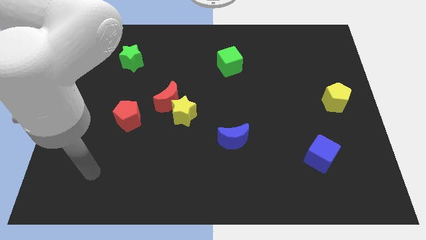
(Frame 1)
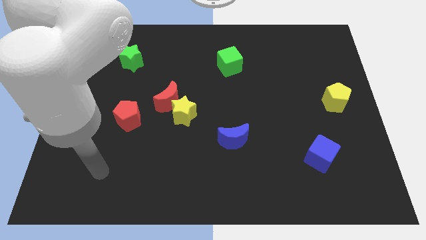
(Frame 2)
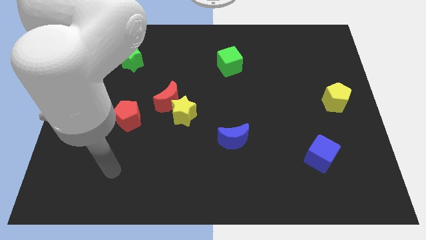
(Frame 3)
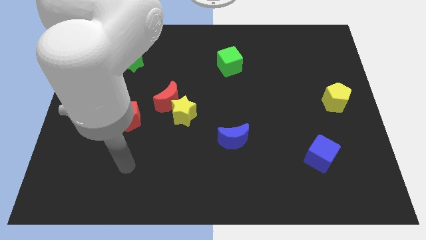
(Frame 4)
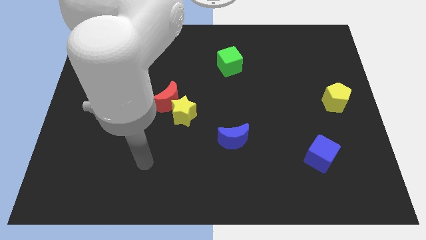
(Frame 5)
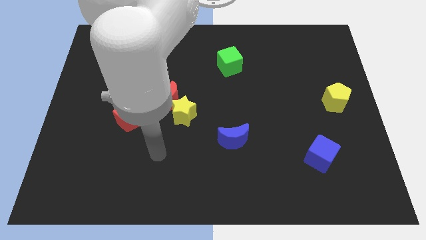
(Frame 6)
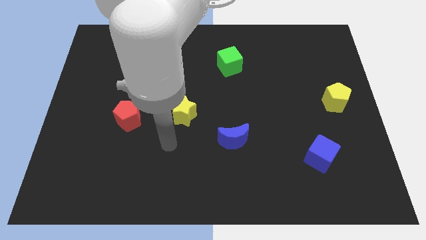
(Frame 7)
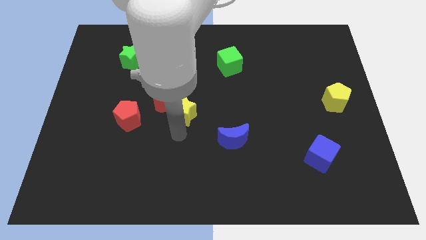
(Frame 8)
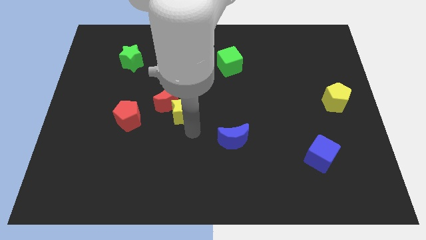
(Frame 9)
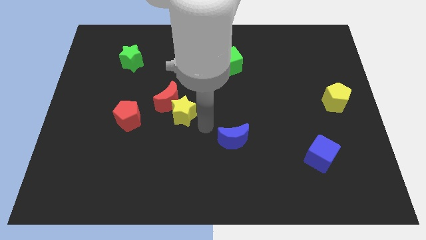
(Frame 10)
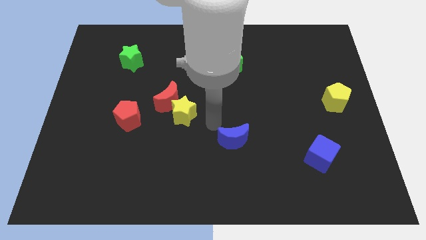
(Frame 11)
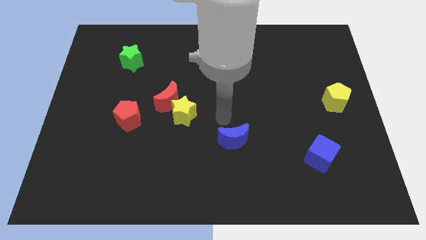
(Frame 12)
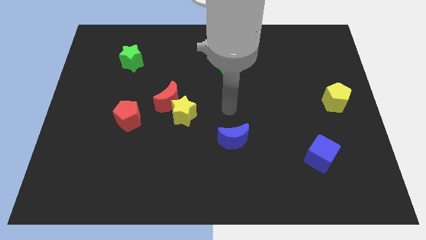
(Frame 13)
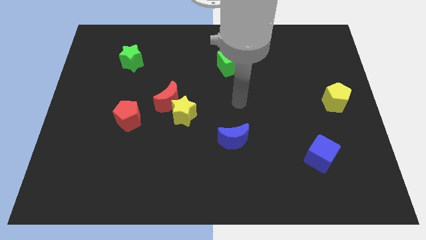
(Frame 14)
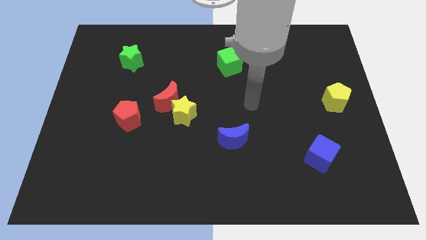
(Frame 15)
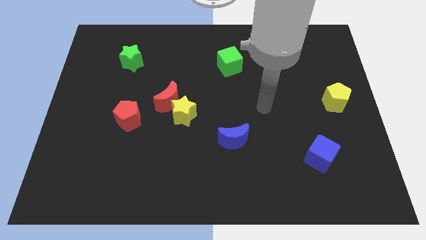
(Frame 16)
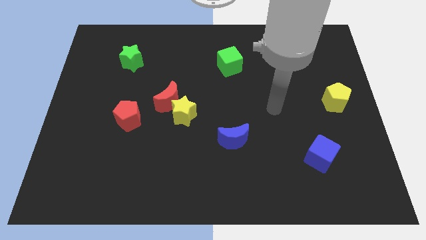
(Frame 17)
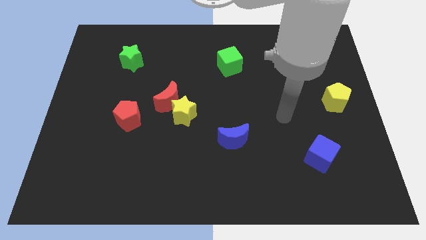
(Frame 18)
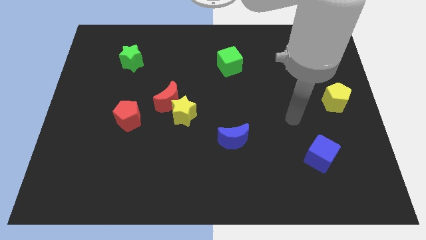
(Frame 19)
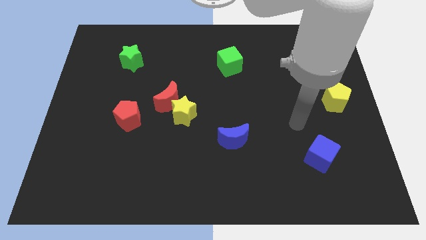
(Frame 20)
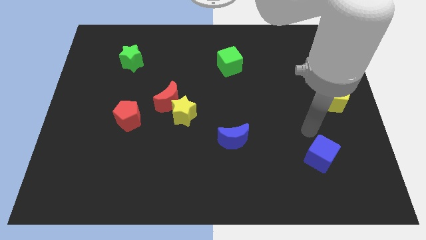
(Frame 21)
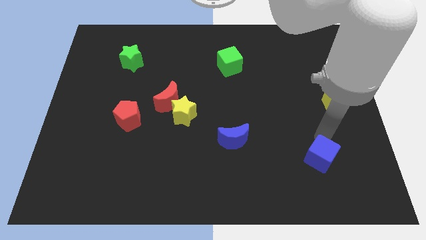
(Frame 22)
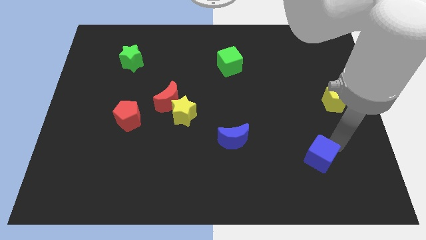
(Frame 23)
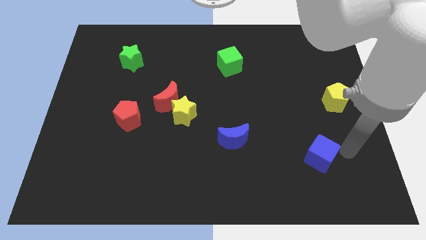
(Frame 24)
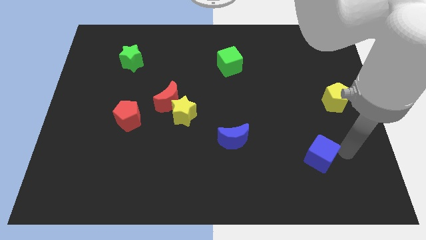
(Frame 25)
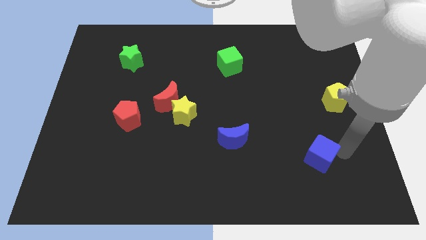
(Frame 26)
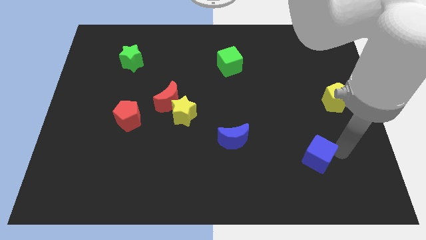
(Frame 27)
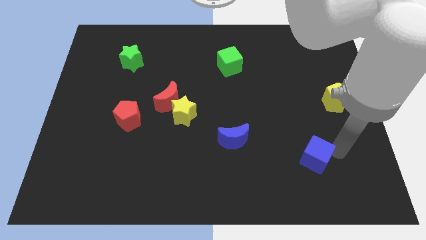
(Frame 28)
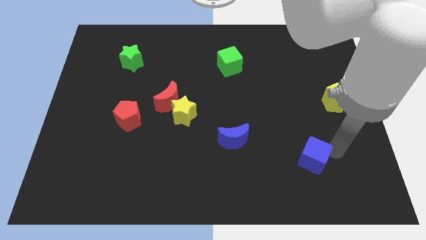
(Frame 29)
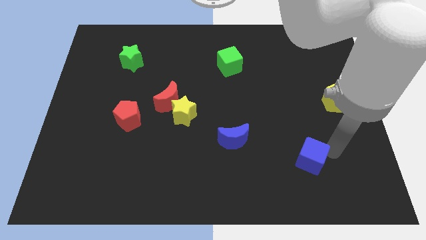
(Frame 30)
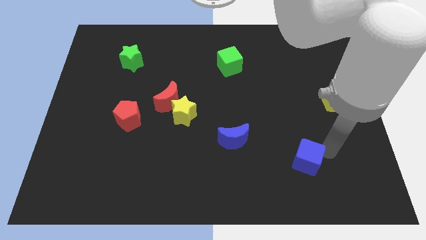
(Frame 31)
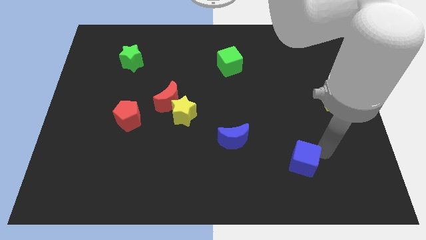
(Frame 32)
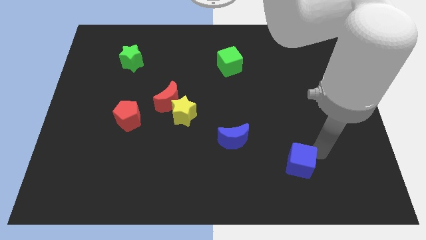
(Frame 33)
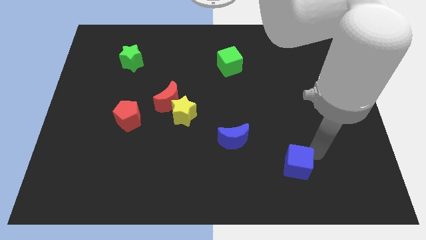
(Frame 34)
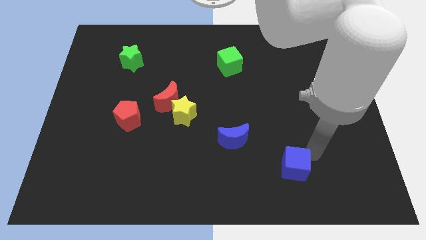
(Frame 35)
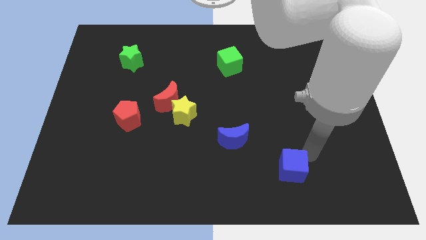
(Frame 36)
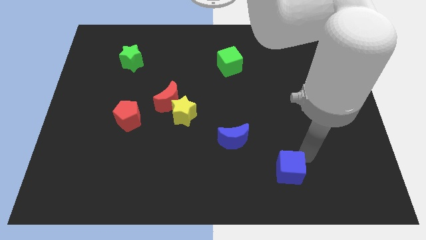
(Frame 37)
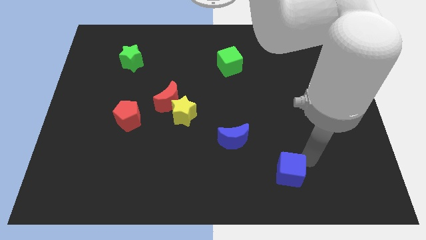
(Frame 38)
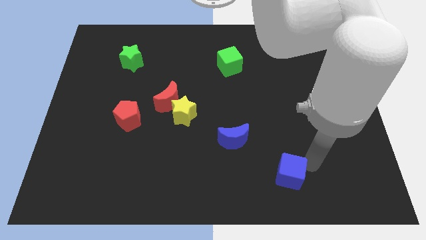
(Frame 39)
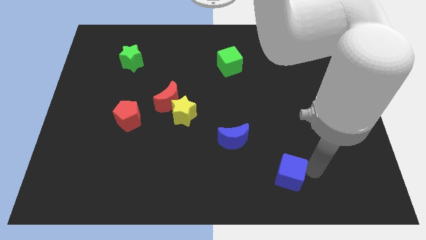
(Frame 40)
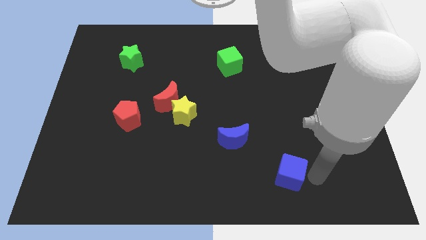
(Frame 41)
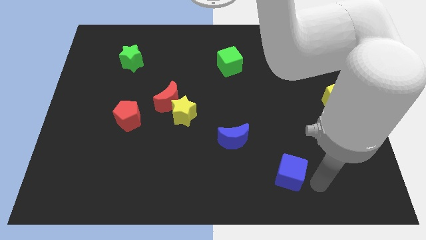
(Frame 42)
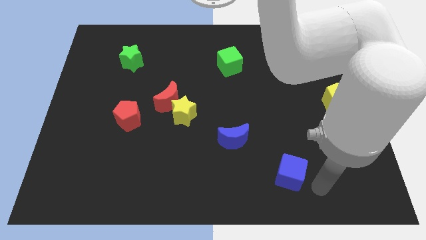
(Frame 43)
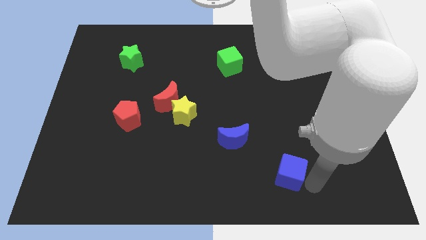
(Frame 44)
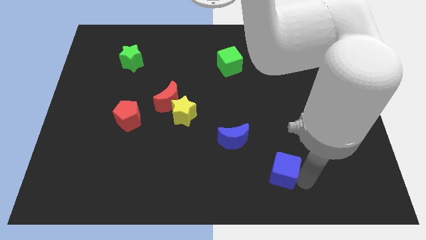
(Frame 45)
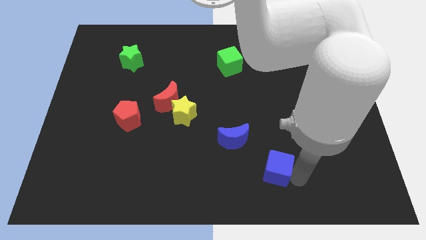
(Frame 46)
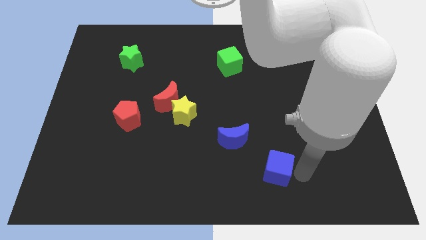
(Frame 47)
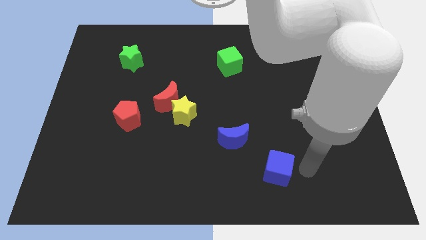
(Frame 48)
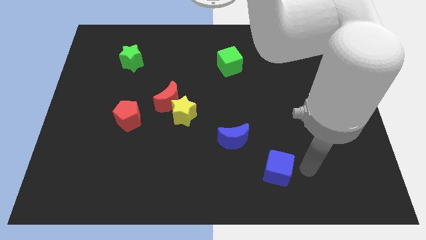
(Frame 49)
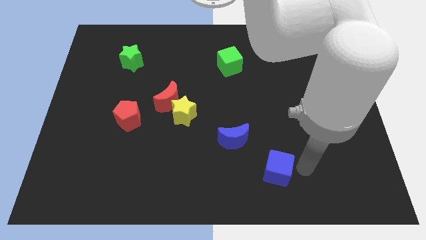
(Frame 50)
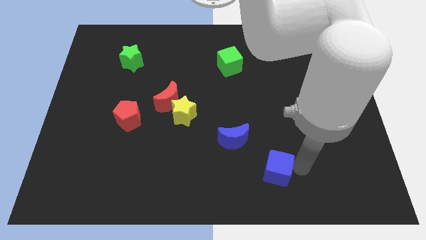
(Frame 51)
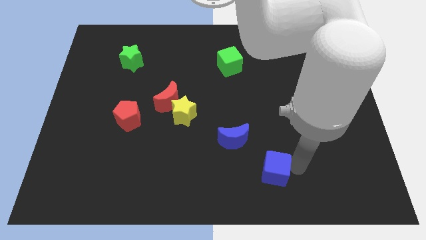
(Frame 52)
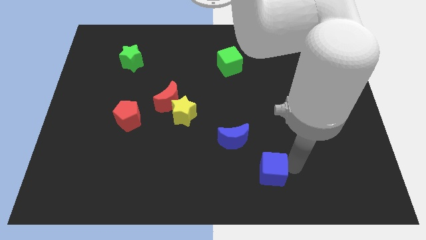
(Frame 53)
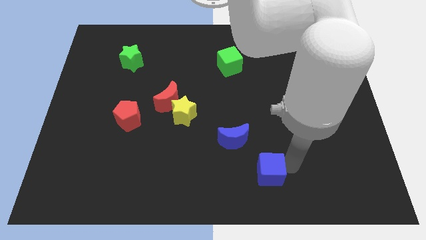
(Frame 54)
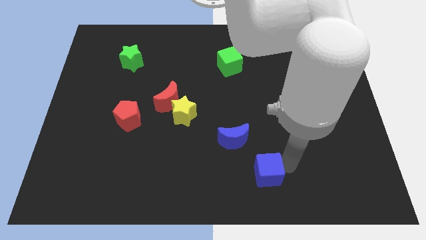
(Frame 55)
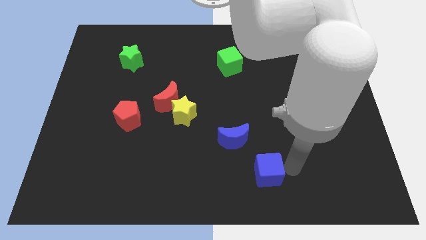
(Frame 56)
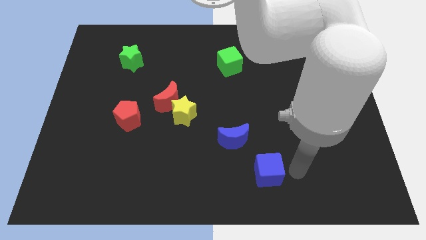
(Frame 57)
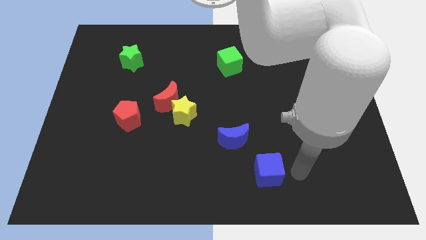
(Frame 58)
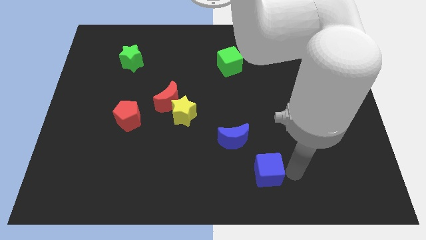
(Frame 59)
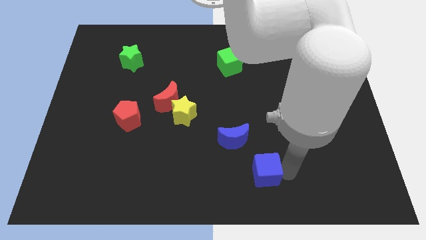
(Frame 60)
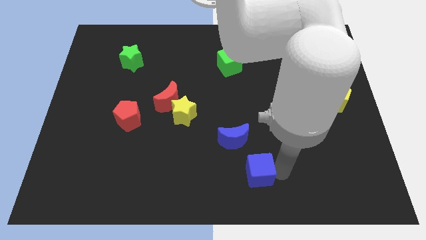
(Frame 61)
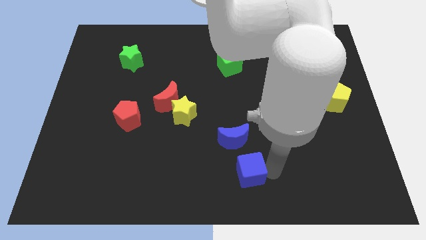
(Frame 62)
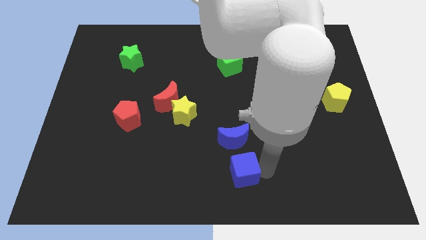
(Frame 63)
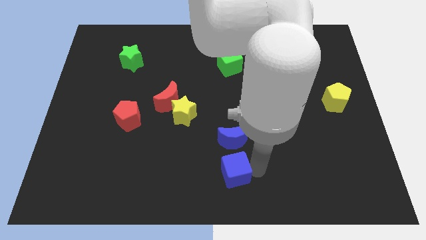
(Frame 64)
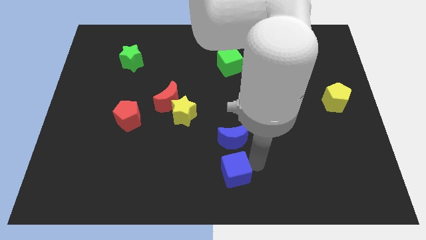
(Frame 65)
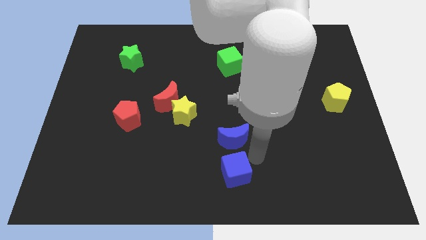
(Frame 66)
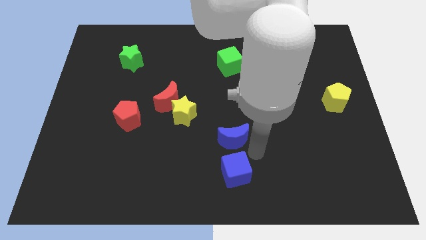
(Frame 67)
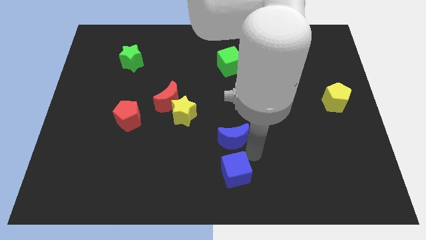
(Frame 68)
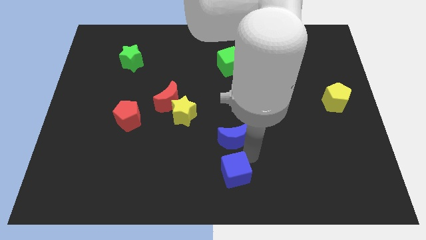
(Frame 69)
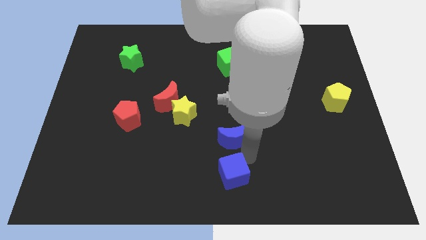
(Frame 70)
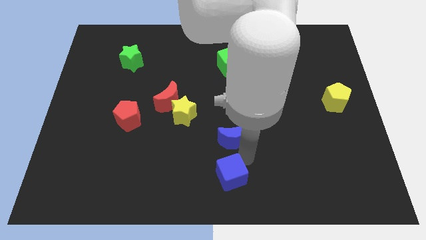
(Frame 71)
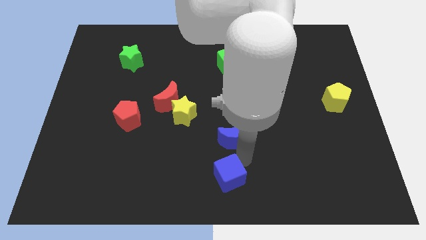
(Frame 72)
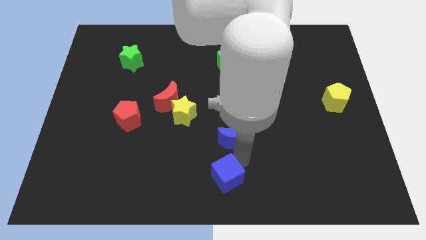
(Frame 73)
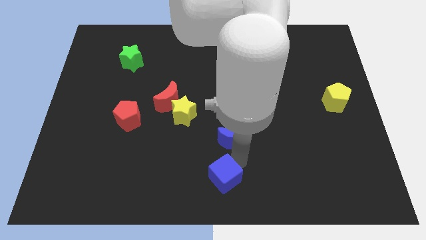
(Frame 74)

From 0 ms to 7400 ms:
move the blue cube left

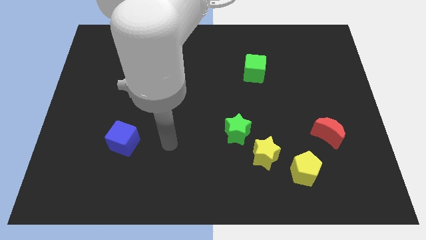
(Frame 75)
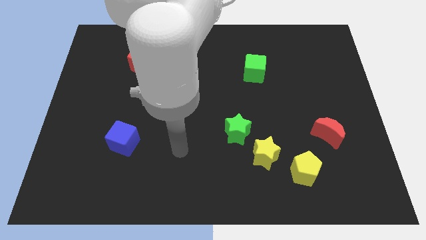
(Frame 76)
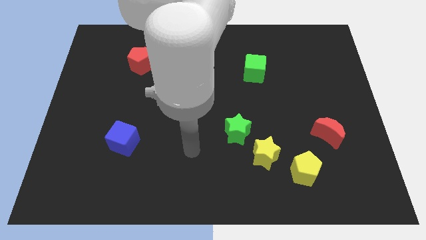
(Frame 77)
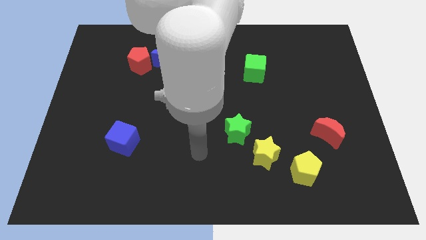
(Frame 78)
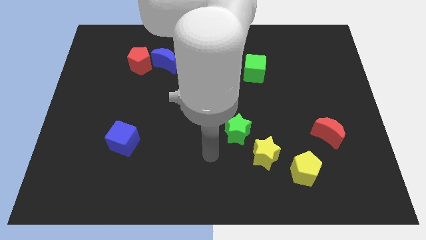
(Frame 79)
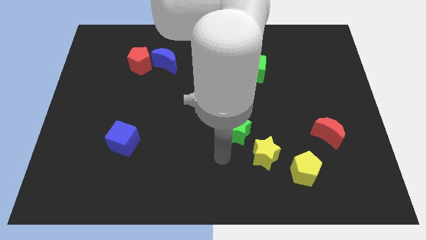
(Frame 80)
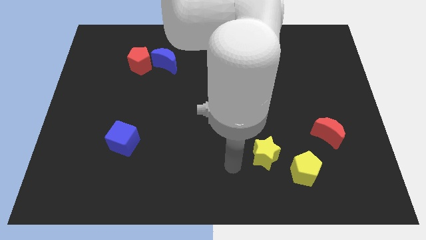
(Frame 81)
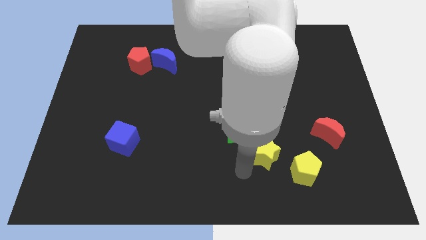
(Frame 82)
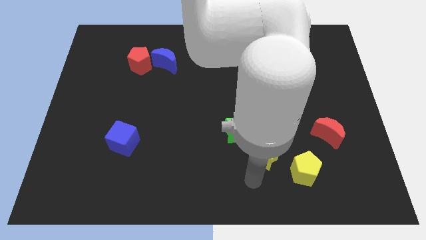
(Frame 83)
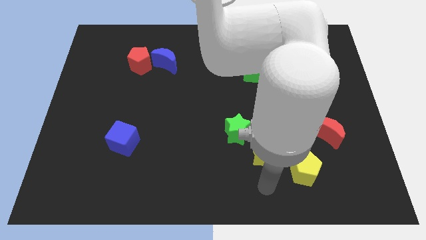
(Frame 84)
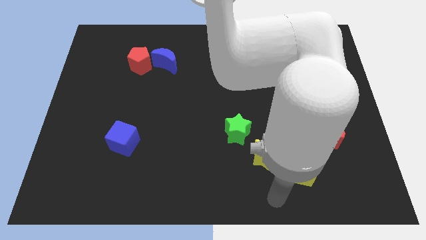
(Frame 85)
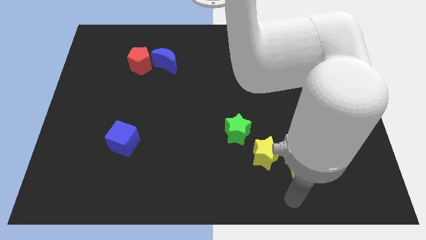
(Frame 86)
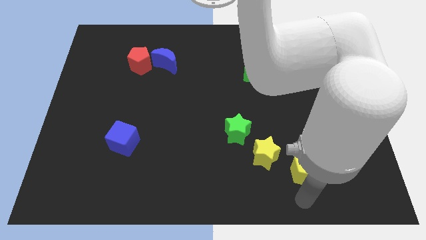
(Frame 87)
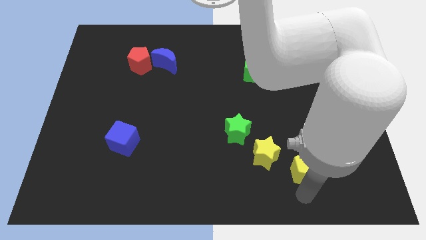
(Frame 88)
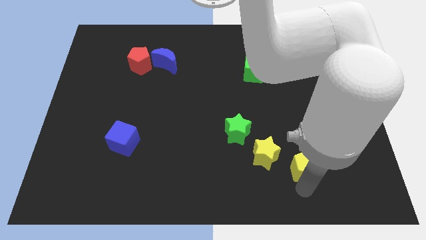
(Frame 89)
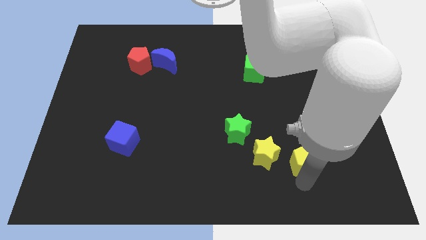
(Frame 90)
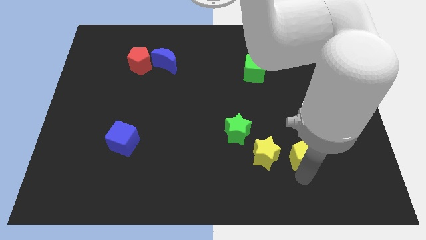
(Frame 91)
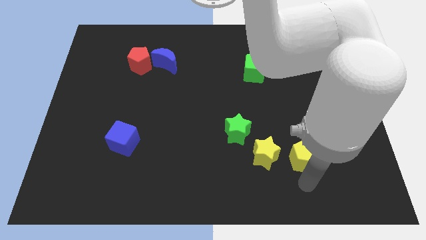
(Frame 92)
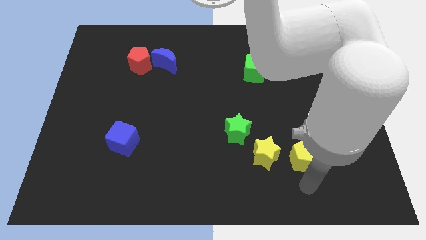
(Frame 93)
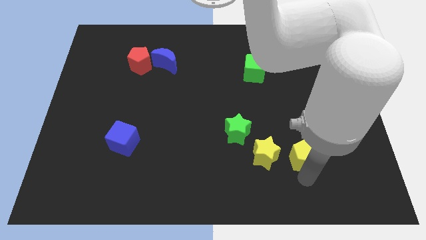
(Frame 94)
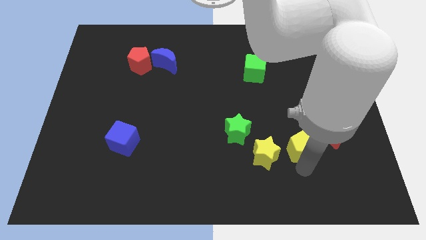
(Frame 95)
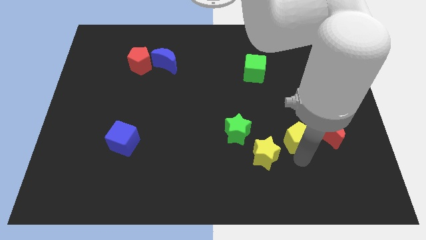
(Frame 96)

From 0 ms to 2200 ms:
move the yellow pentagon slightly upwards
